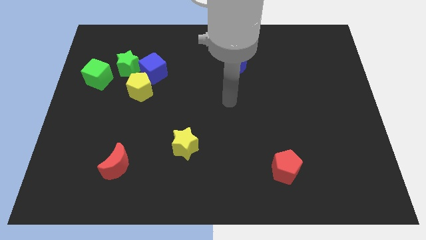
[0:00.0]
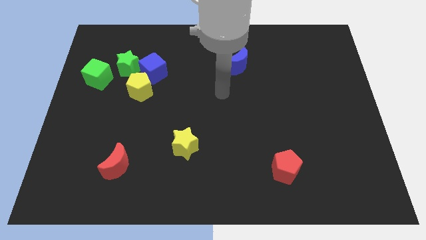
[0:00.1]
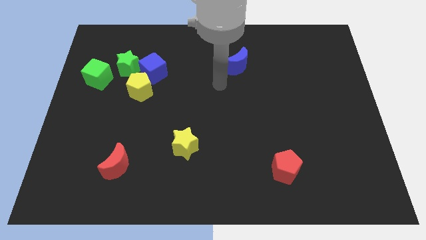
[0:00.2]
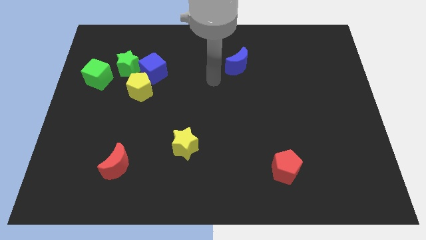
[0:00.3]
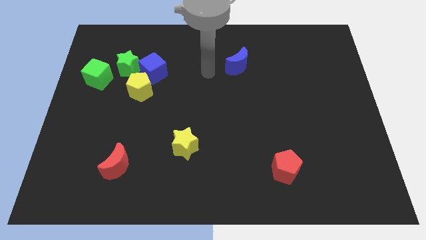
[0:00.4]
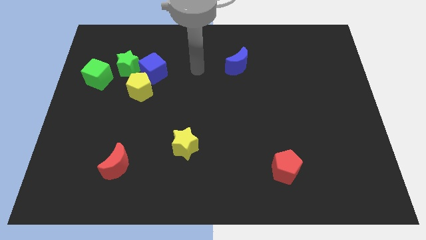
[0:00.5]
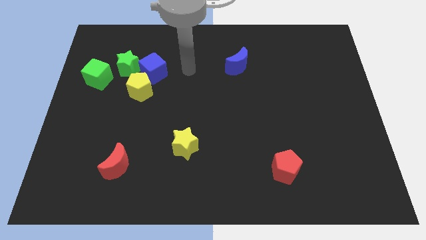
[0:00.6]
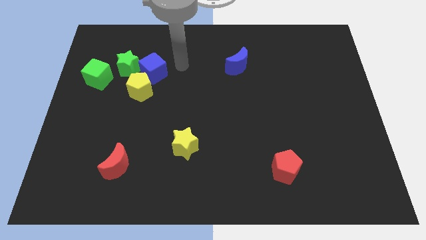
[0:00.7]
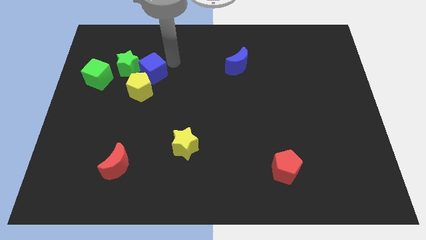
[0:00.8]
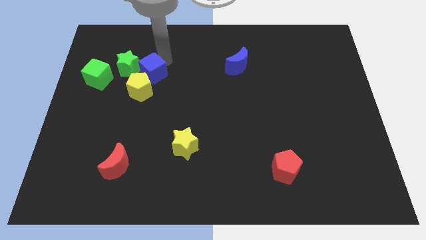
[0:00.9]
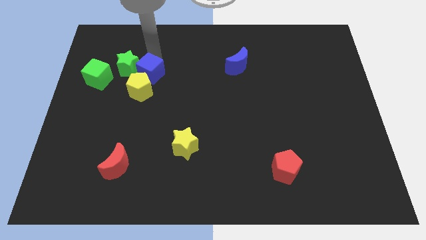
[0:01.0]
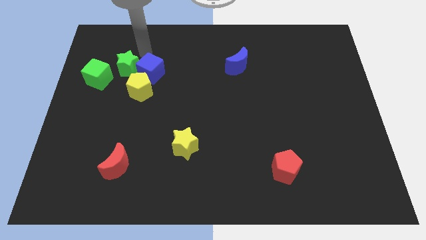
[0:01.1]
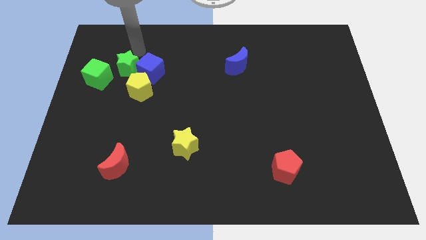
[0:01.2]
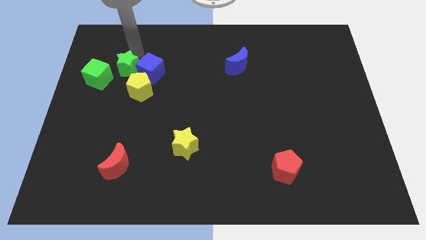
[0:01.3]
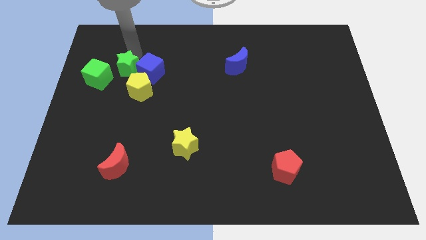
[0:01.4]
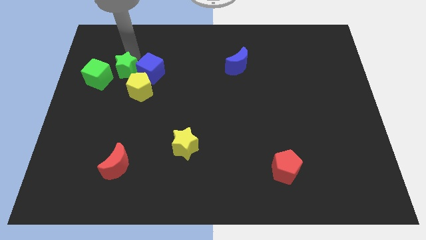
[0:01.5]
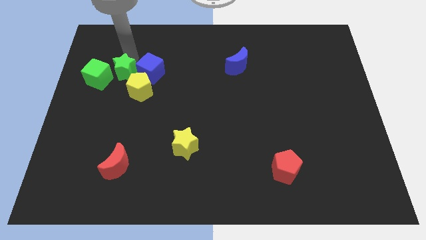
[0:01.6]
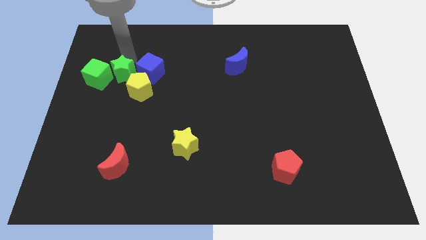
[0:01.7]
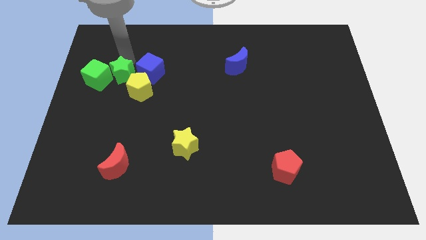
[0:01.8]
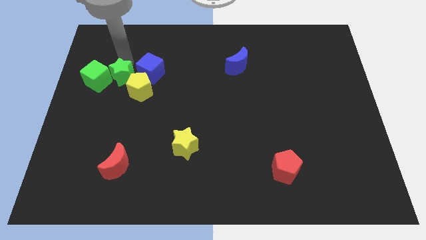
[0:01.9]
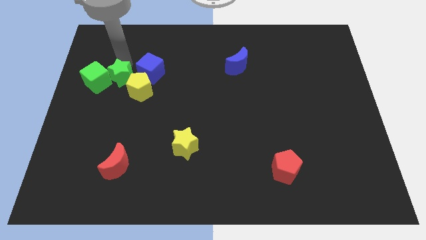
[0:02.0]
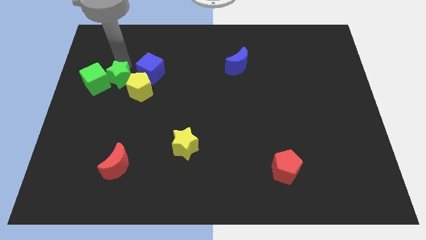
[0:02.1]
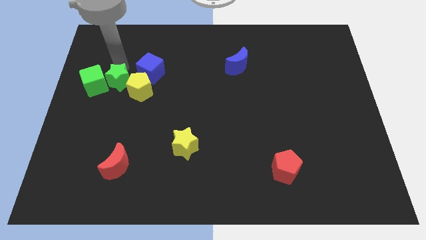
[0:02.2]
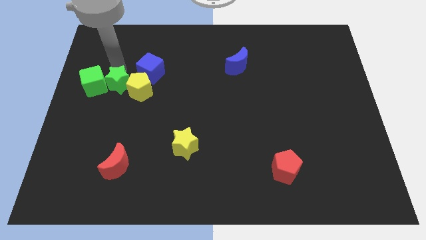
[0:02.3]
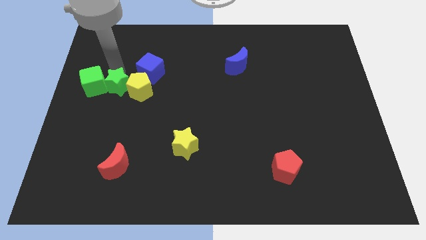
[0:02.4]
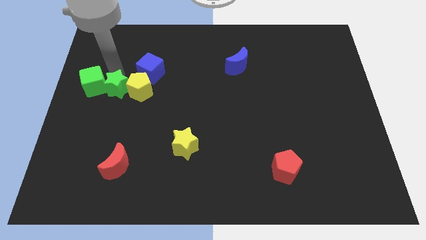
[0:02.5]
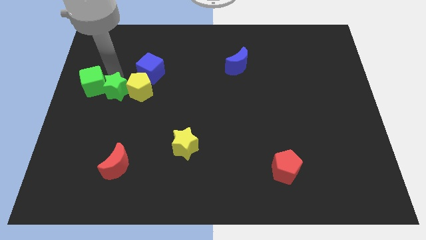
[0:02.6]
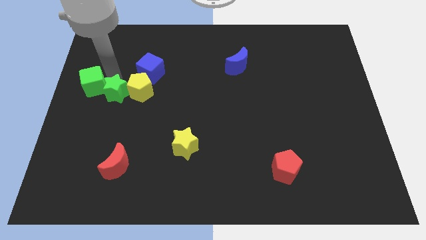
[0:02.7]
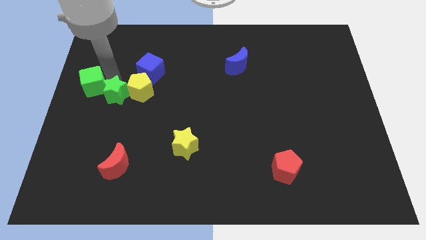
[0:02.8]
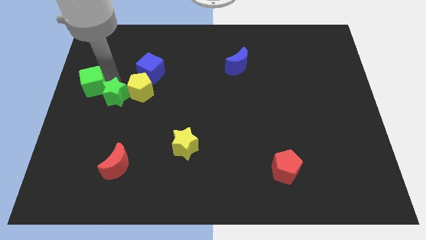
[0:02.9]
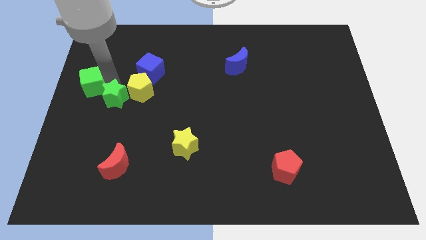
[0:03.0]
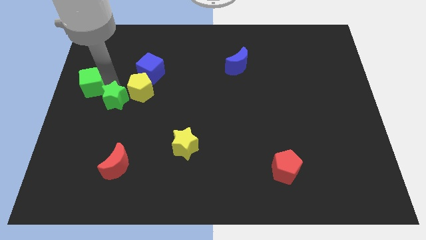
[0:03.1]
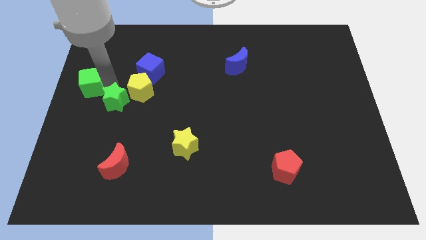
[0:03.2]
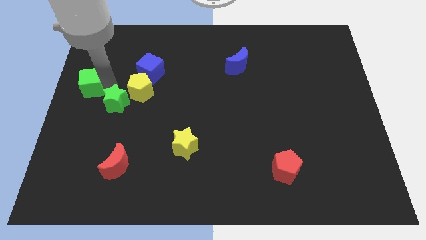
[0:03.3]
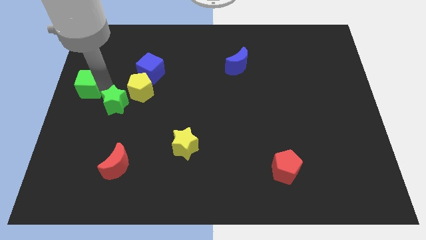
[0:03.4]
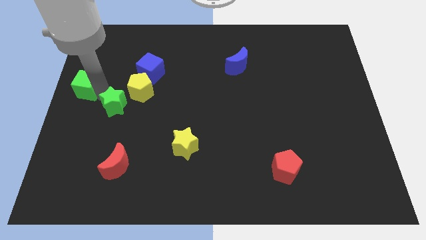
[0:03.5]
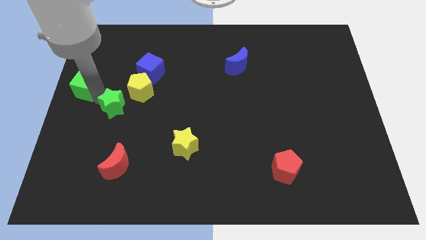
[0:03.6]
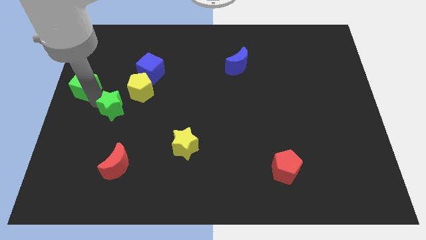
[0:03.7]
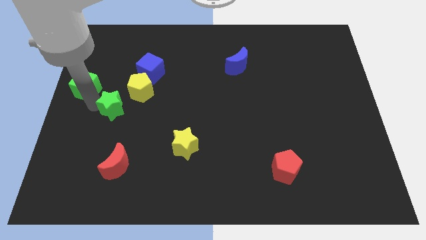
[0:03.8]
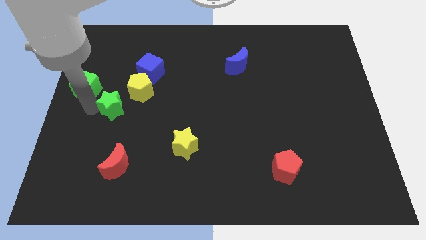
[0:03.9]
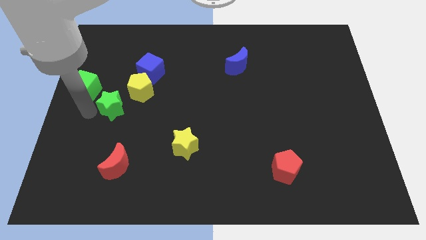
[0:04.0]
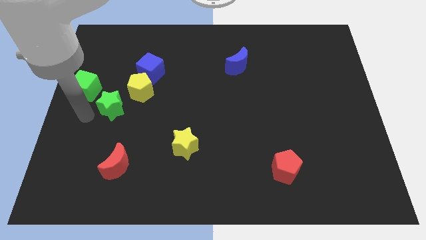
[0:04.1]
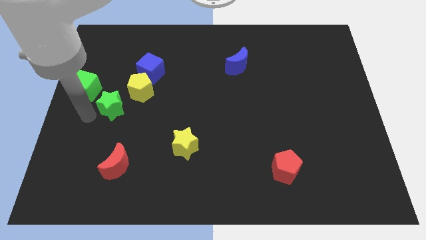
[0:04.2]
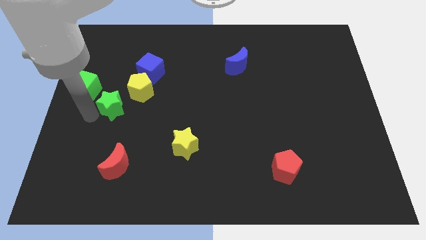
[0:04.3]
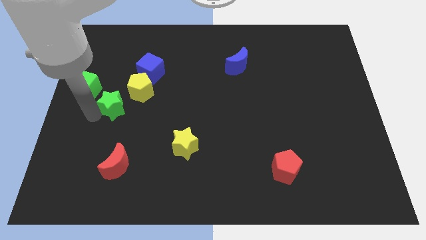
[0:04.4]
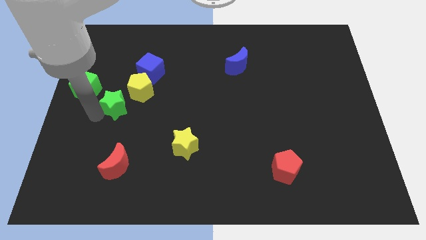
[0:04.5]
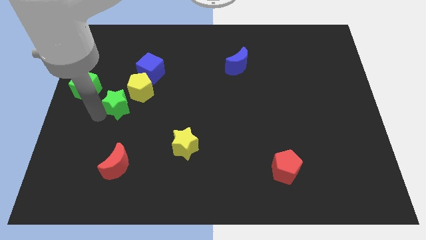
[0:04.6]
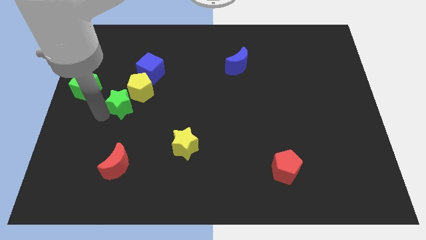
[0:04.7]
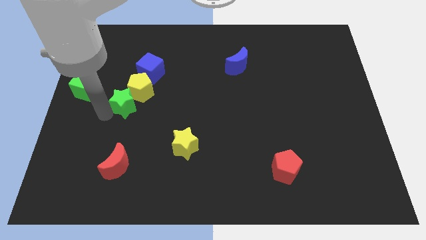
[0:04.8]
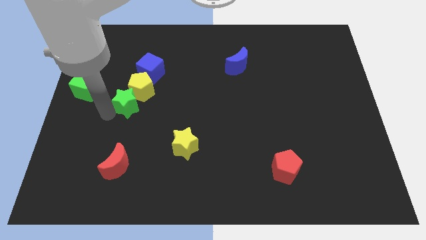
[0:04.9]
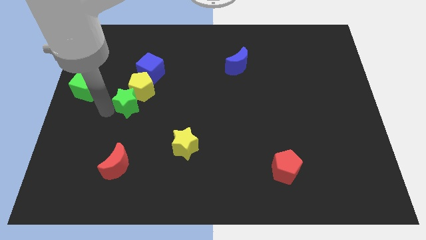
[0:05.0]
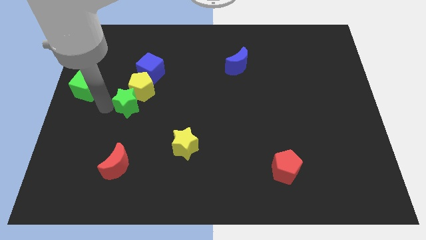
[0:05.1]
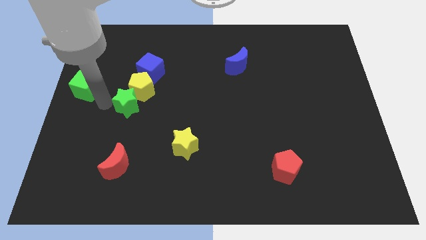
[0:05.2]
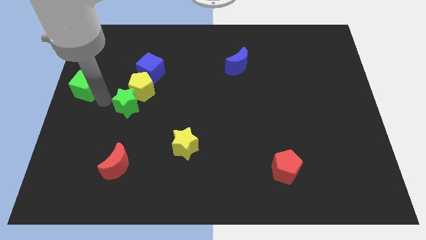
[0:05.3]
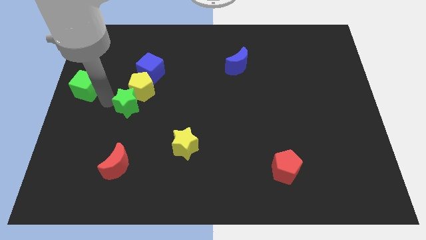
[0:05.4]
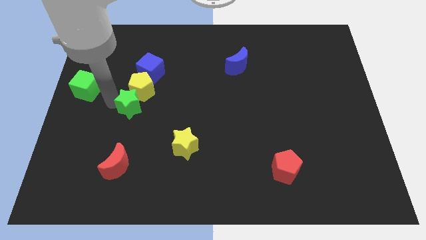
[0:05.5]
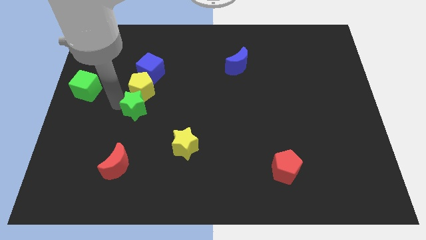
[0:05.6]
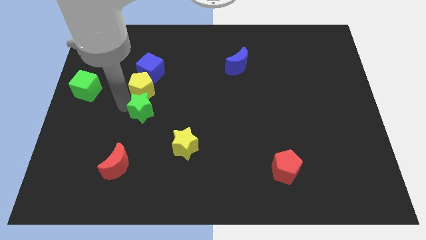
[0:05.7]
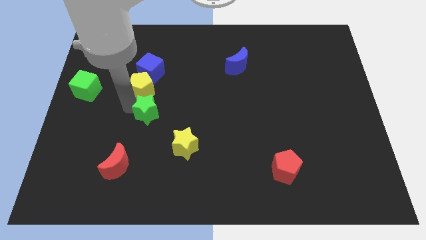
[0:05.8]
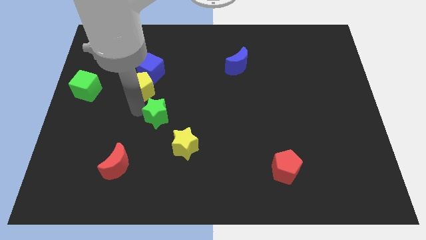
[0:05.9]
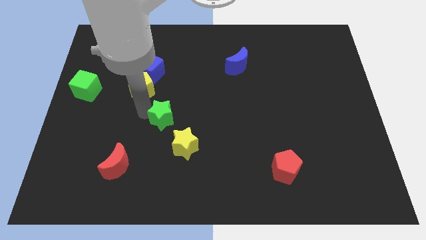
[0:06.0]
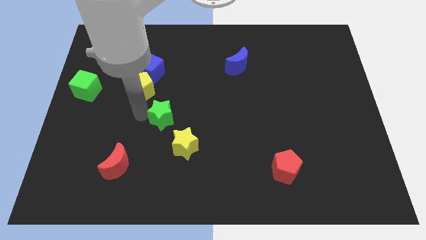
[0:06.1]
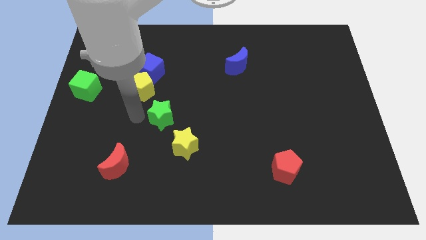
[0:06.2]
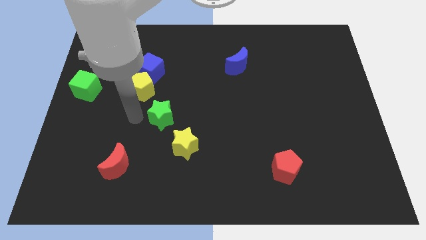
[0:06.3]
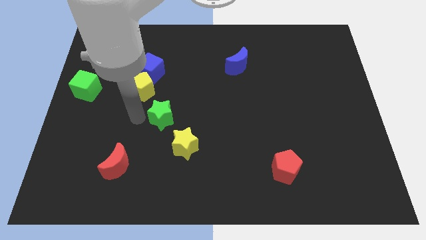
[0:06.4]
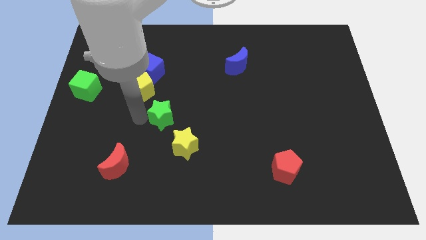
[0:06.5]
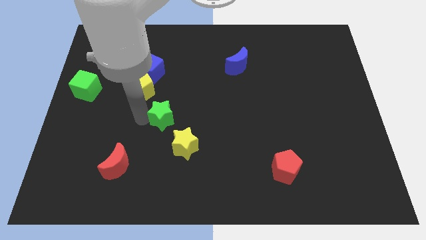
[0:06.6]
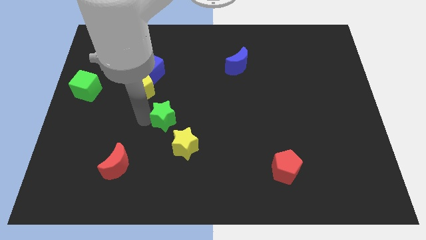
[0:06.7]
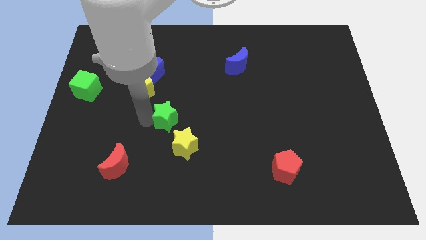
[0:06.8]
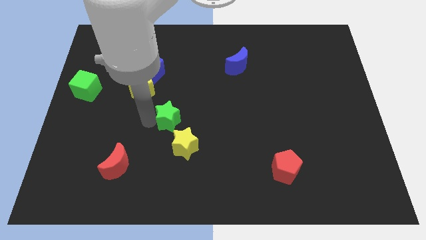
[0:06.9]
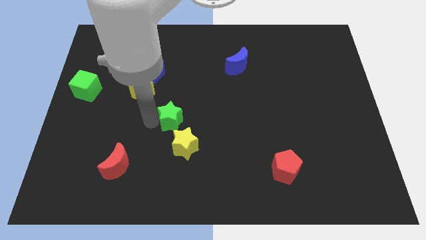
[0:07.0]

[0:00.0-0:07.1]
slide the green star down and to the right diagonally

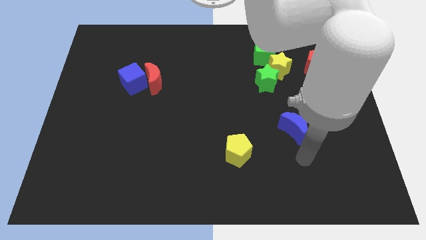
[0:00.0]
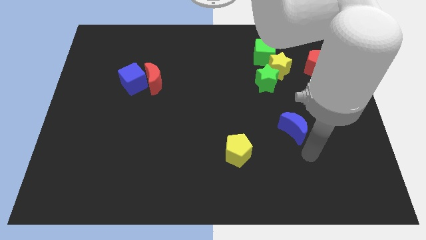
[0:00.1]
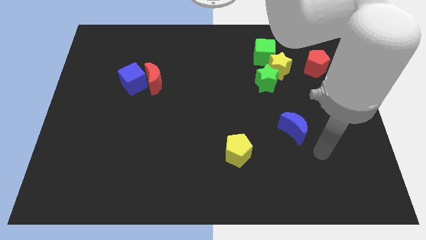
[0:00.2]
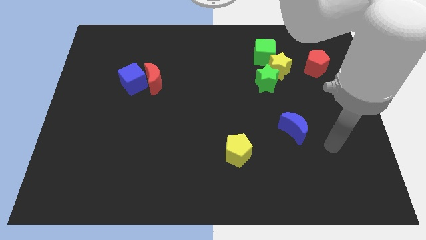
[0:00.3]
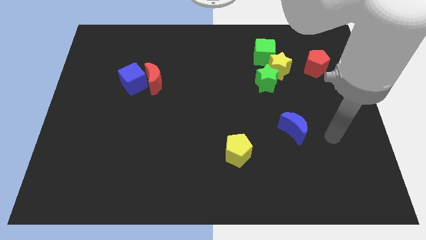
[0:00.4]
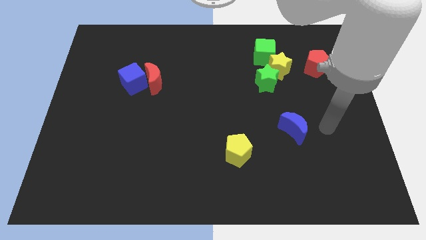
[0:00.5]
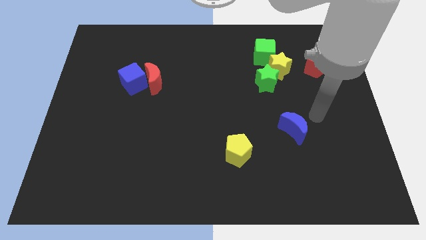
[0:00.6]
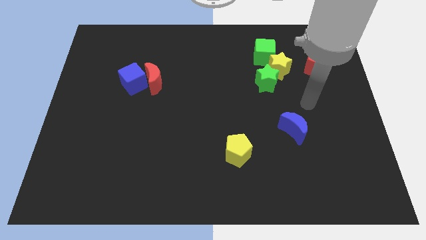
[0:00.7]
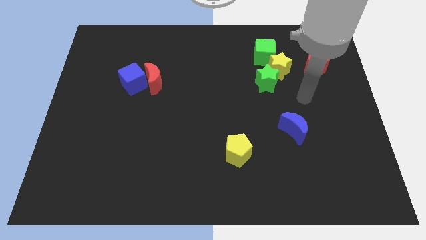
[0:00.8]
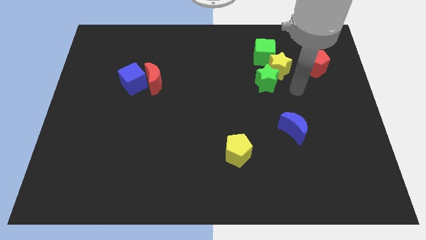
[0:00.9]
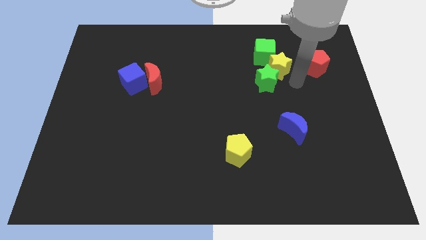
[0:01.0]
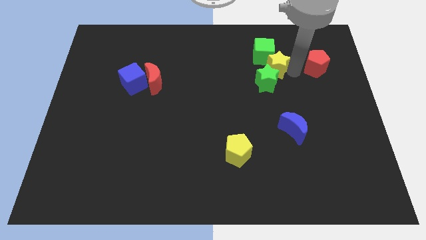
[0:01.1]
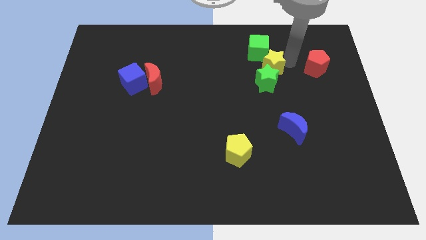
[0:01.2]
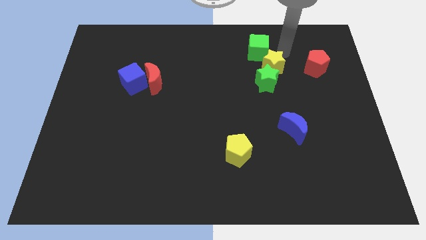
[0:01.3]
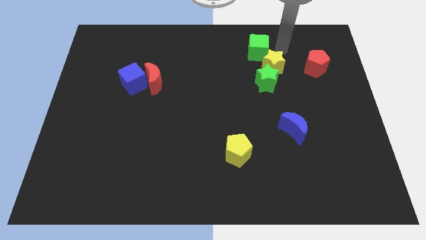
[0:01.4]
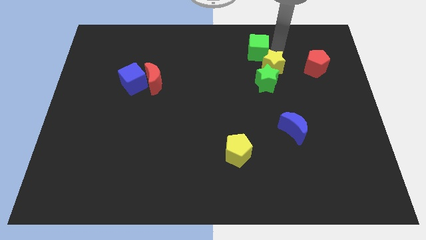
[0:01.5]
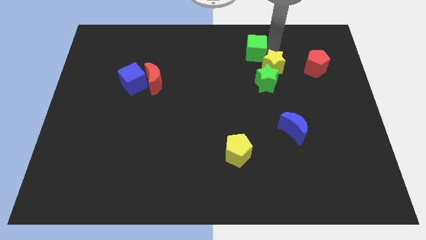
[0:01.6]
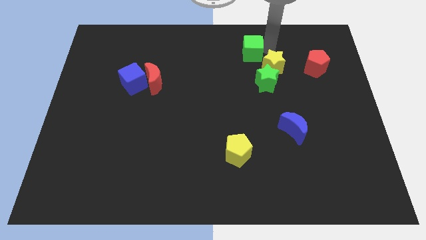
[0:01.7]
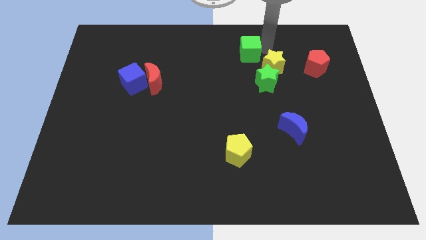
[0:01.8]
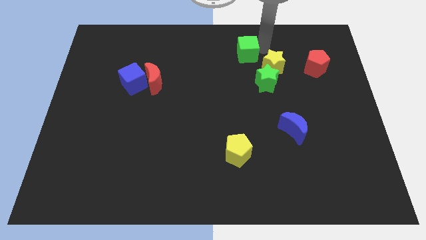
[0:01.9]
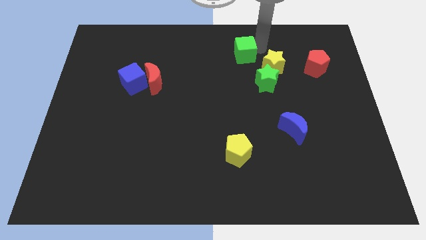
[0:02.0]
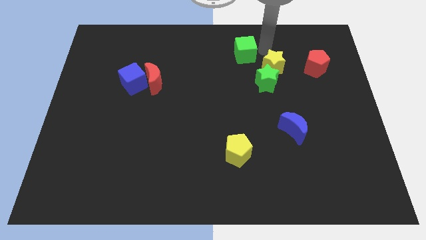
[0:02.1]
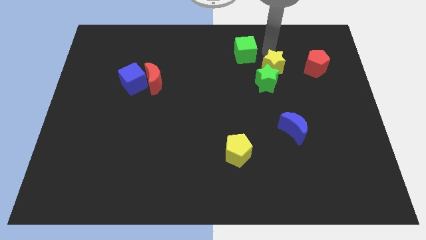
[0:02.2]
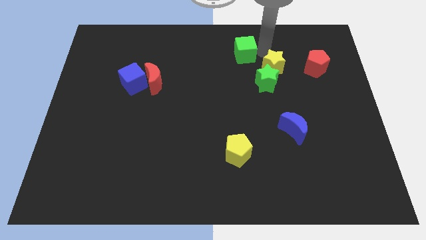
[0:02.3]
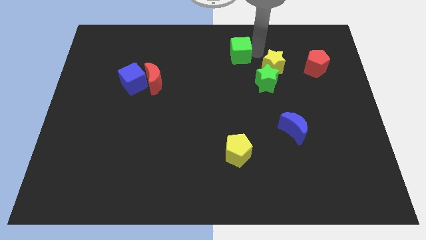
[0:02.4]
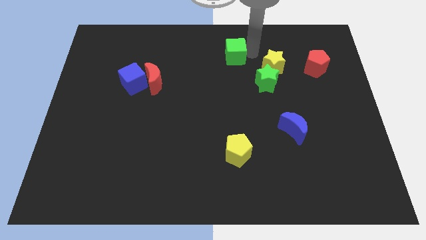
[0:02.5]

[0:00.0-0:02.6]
slightly slide the green cube to the left
